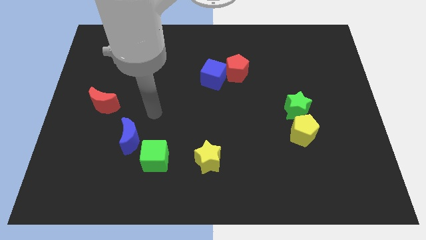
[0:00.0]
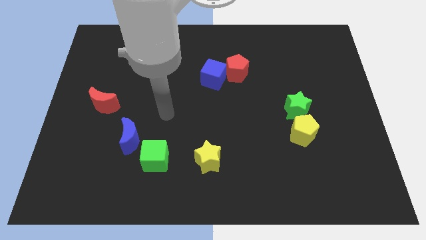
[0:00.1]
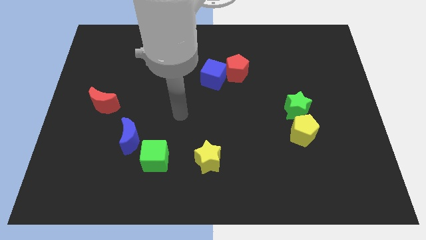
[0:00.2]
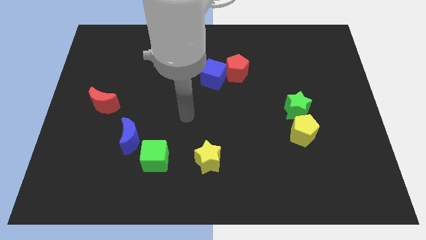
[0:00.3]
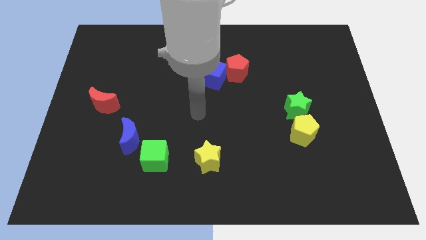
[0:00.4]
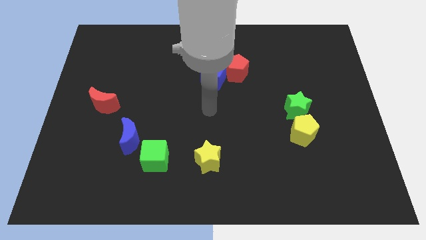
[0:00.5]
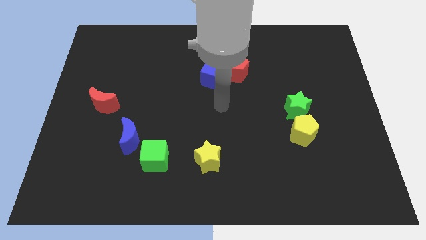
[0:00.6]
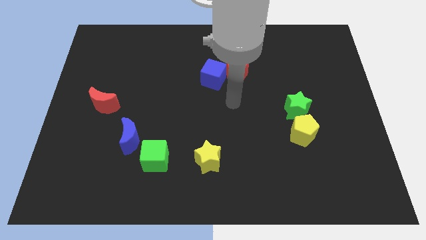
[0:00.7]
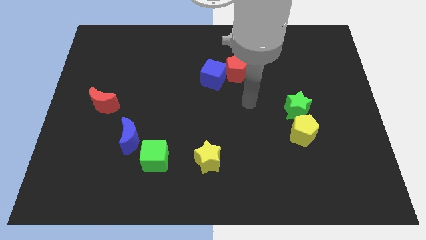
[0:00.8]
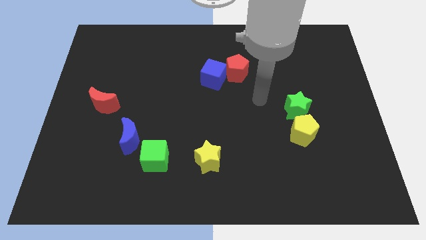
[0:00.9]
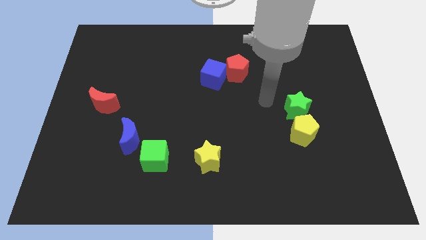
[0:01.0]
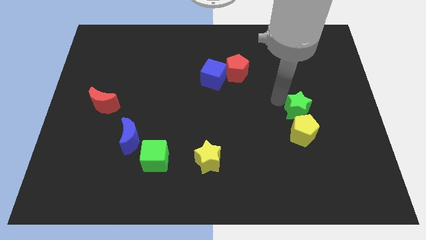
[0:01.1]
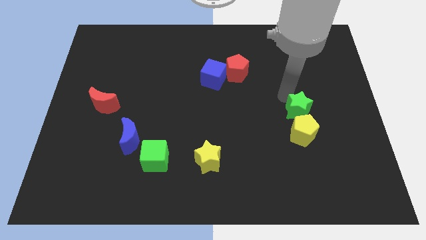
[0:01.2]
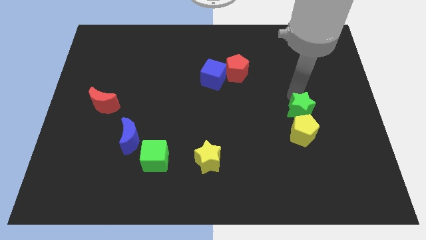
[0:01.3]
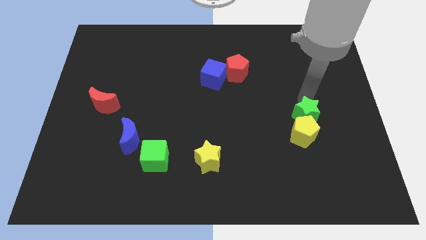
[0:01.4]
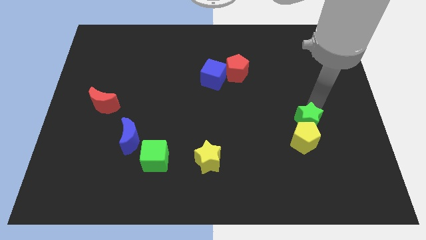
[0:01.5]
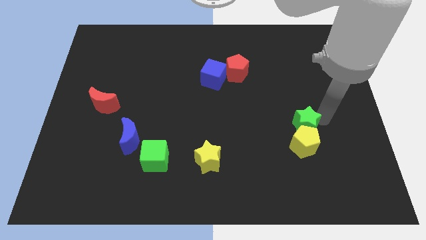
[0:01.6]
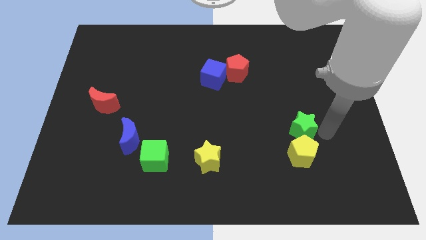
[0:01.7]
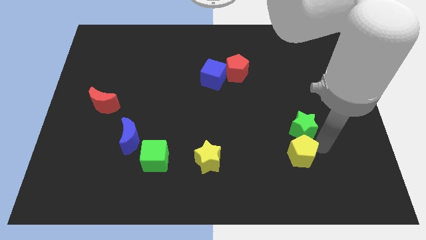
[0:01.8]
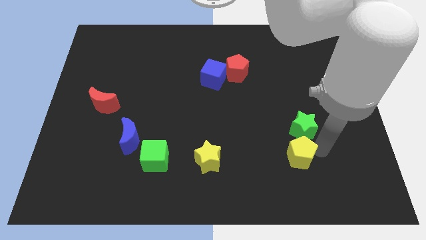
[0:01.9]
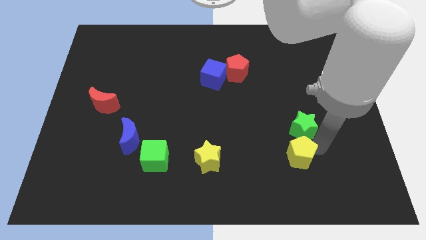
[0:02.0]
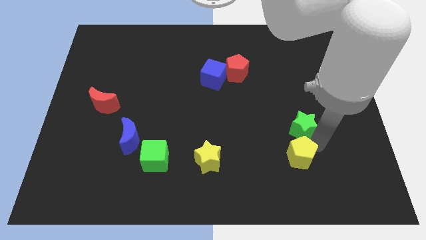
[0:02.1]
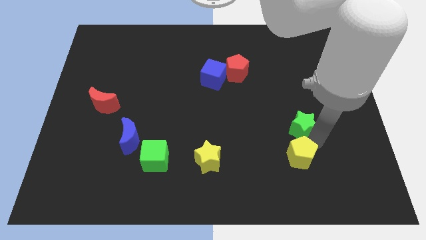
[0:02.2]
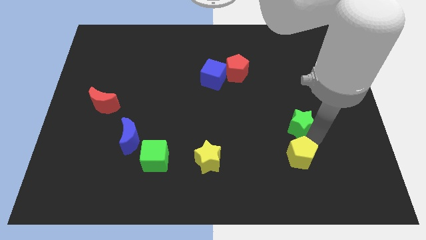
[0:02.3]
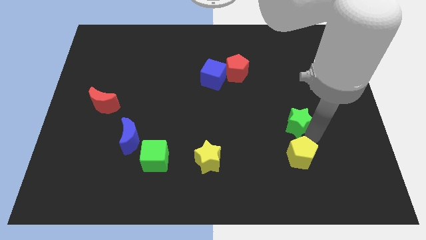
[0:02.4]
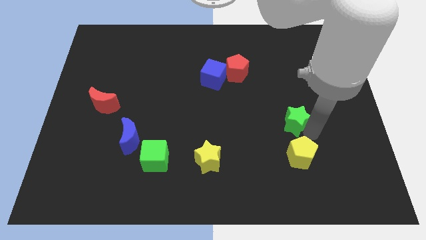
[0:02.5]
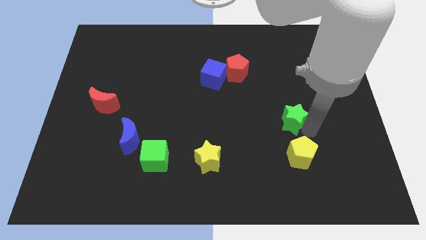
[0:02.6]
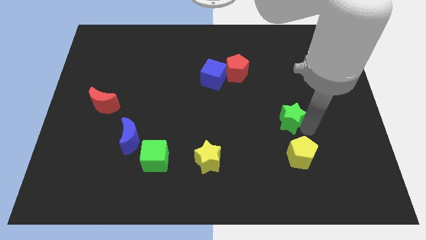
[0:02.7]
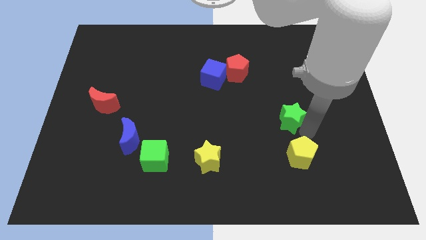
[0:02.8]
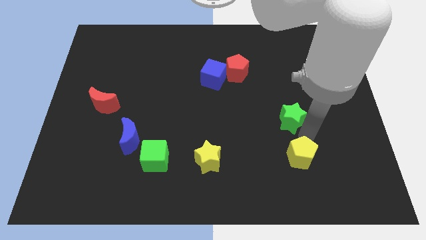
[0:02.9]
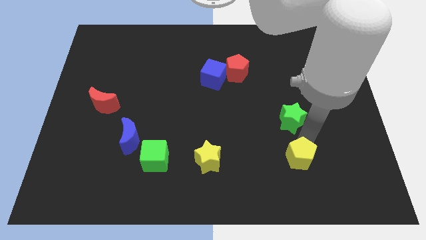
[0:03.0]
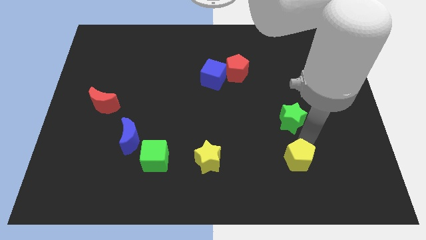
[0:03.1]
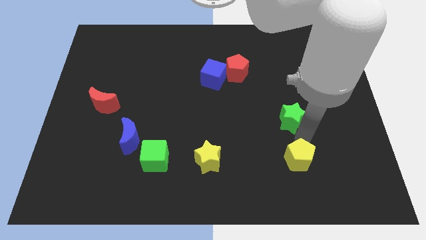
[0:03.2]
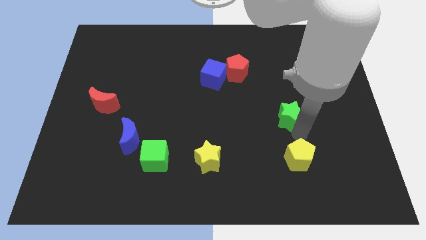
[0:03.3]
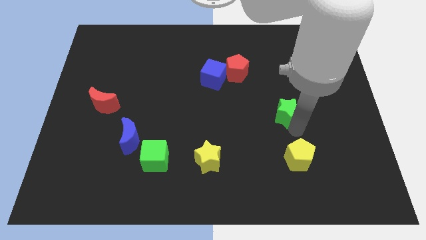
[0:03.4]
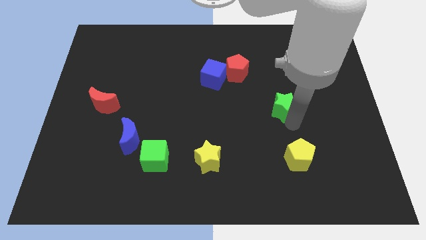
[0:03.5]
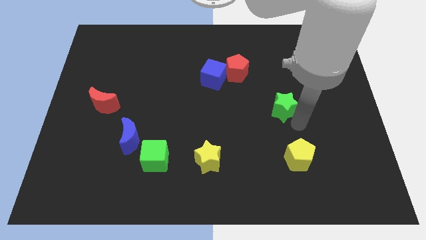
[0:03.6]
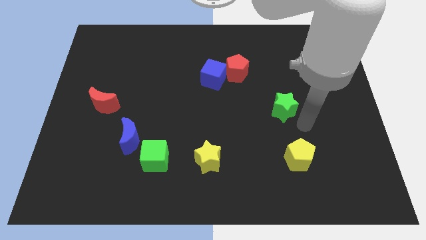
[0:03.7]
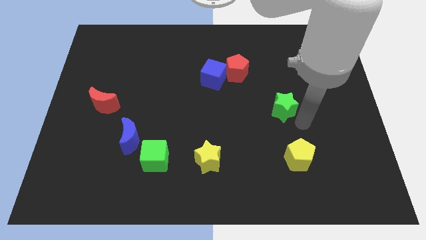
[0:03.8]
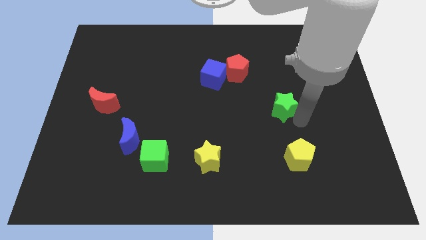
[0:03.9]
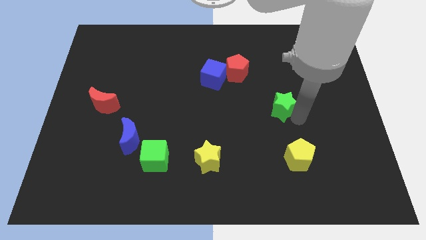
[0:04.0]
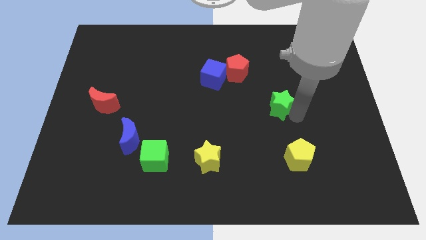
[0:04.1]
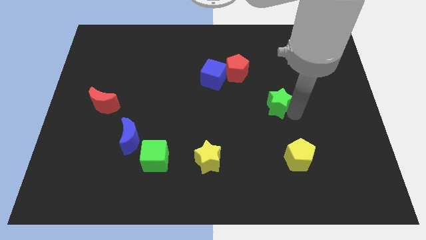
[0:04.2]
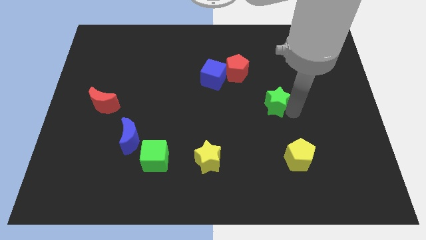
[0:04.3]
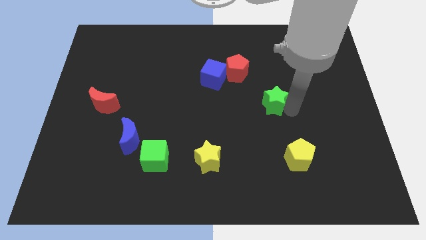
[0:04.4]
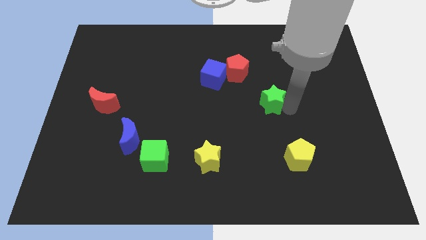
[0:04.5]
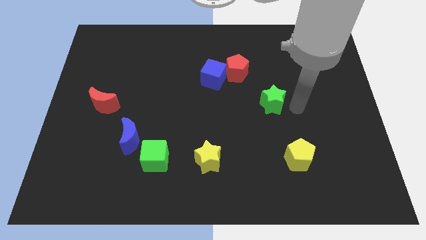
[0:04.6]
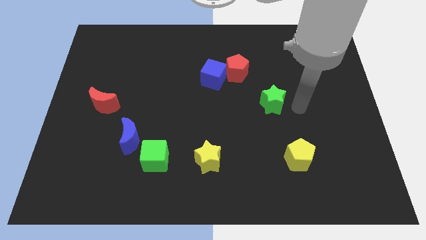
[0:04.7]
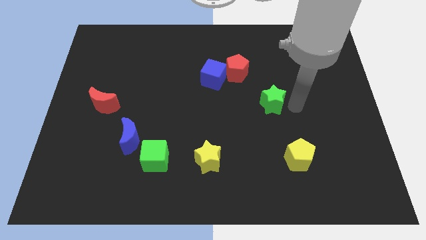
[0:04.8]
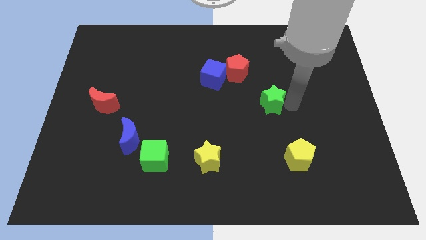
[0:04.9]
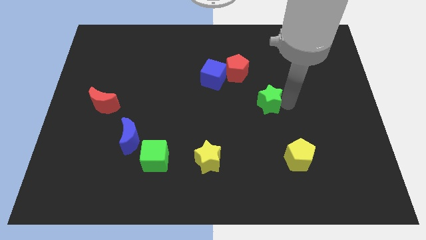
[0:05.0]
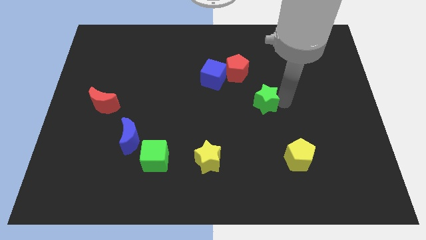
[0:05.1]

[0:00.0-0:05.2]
put the green star to the middle of the board

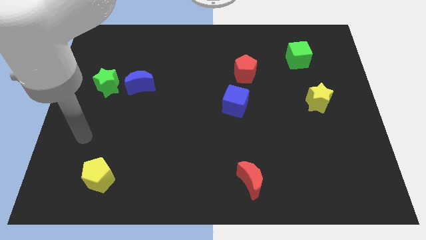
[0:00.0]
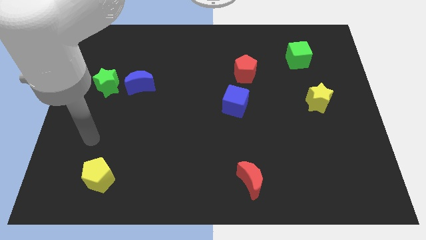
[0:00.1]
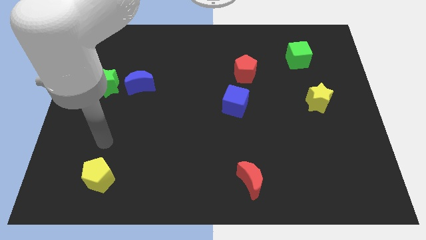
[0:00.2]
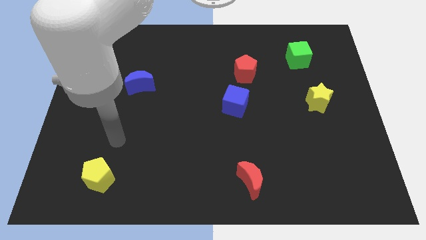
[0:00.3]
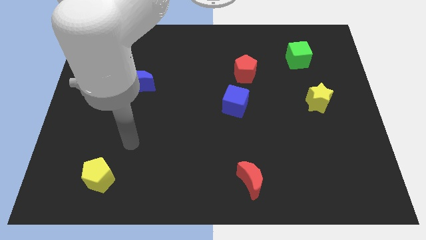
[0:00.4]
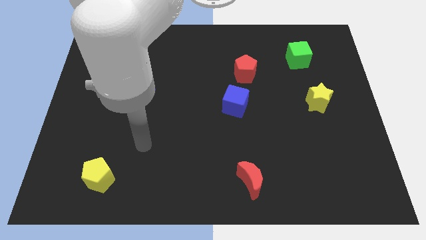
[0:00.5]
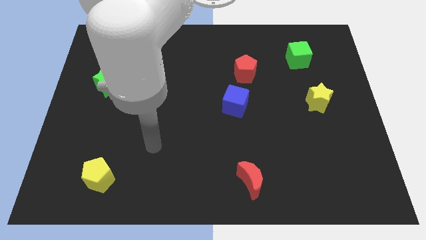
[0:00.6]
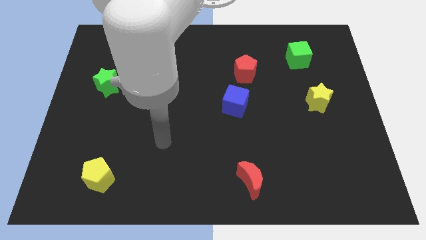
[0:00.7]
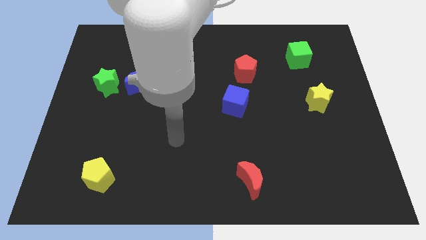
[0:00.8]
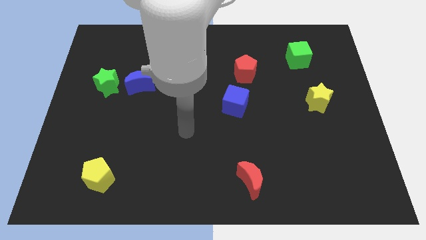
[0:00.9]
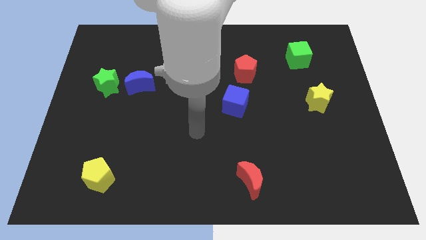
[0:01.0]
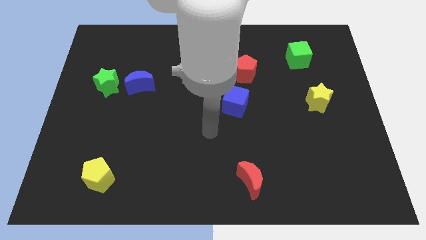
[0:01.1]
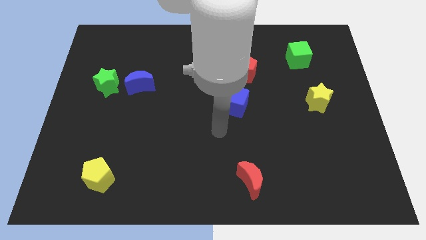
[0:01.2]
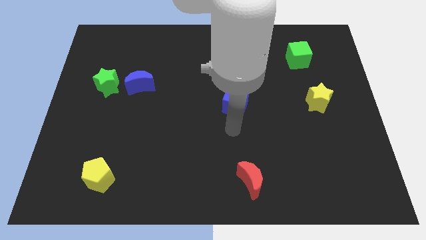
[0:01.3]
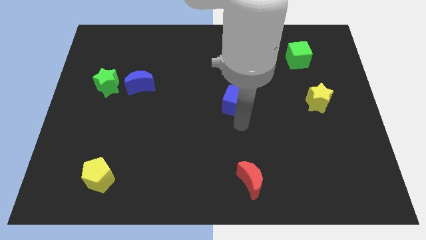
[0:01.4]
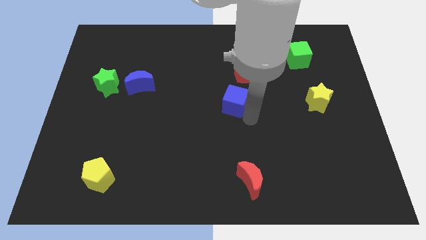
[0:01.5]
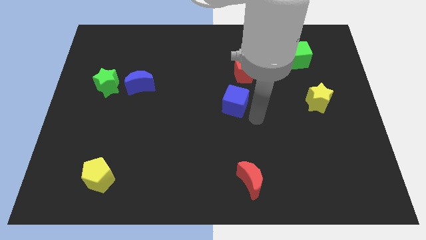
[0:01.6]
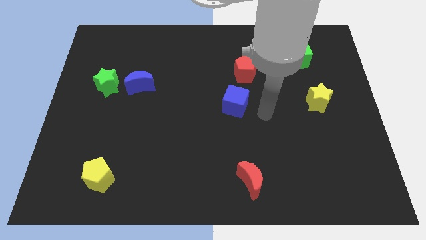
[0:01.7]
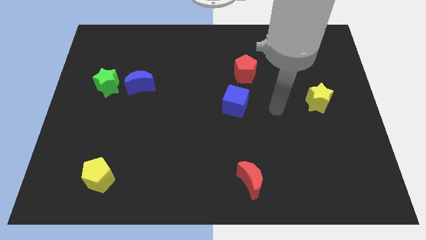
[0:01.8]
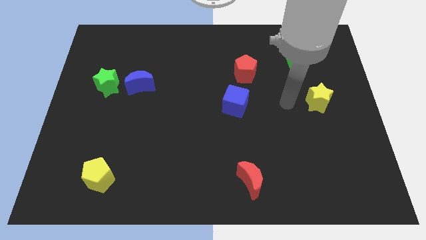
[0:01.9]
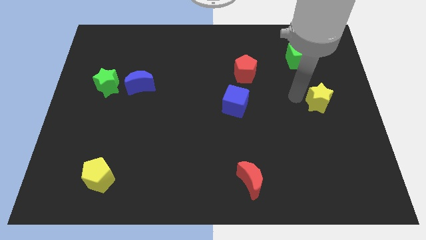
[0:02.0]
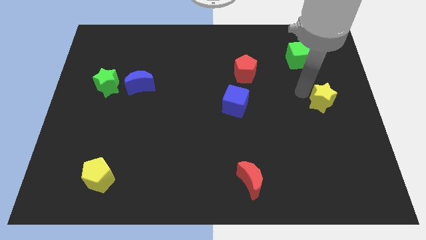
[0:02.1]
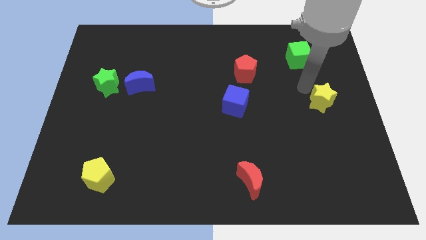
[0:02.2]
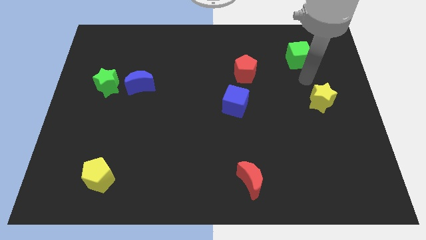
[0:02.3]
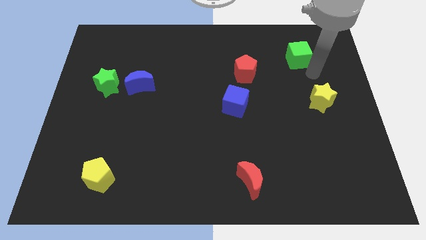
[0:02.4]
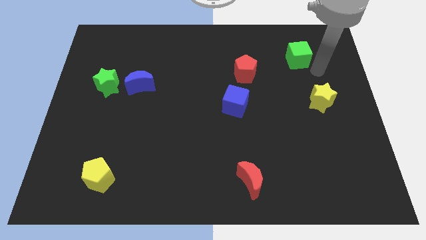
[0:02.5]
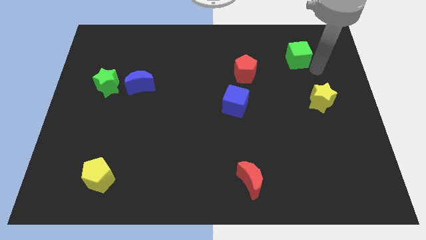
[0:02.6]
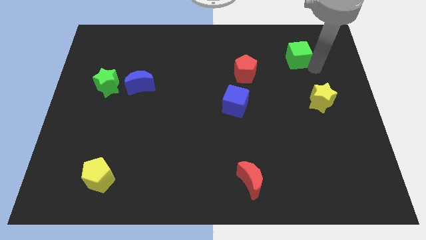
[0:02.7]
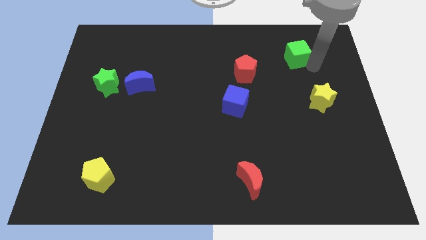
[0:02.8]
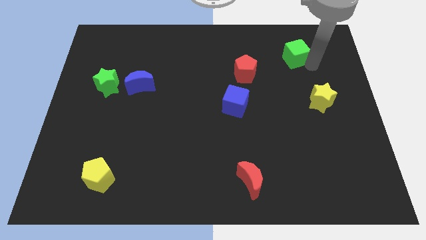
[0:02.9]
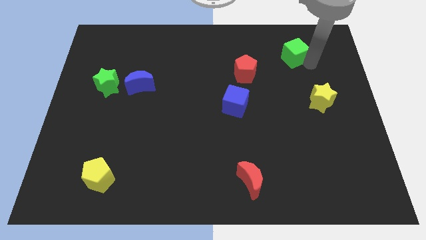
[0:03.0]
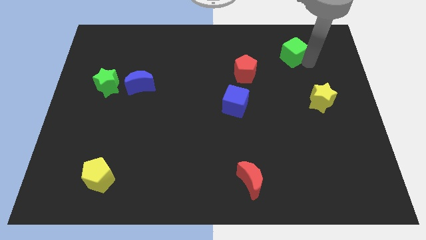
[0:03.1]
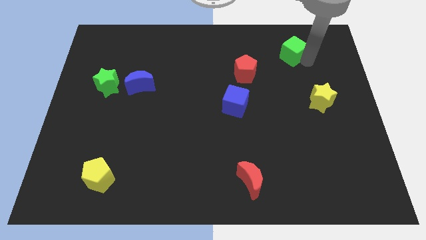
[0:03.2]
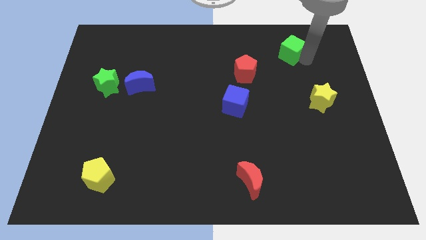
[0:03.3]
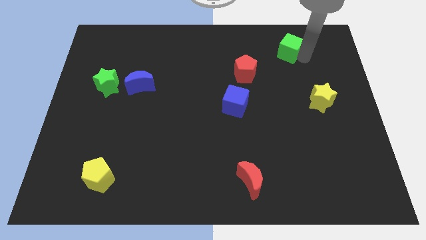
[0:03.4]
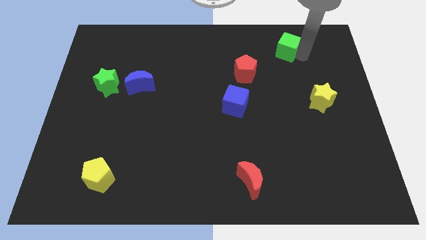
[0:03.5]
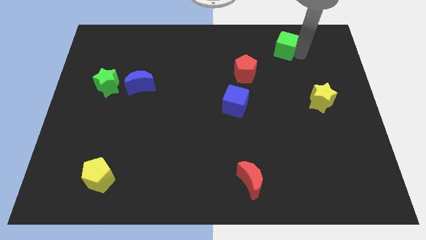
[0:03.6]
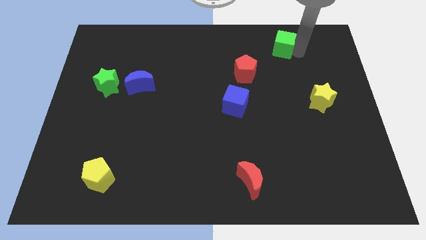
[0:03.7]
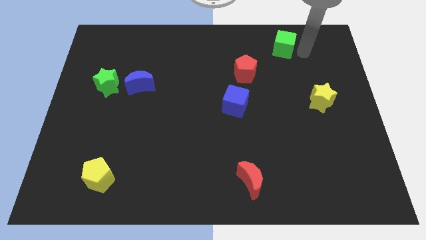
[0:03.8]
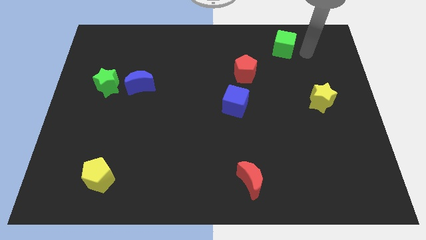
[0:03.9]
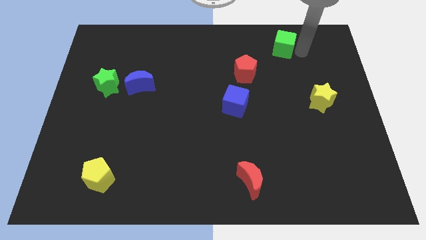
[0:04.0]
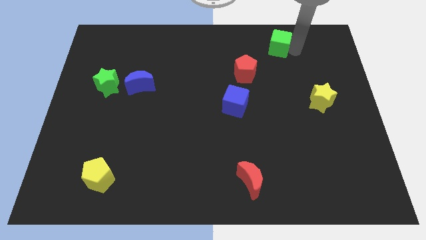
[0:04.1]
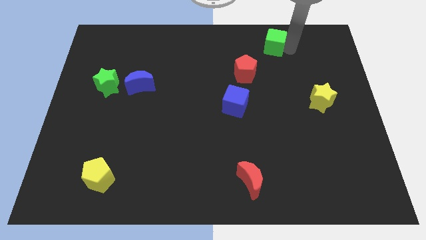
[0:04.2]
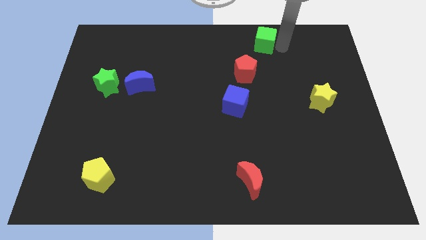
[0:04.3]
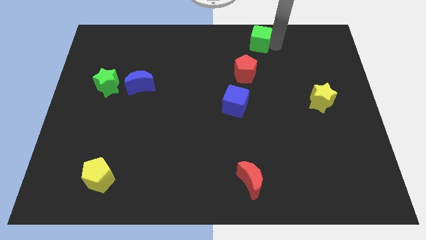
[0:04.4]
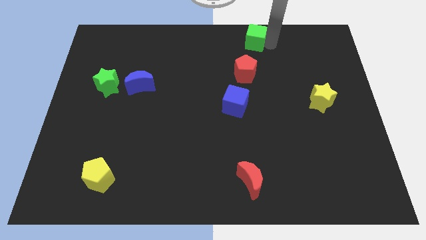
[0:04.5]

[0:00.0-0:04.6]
slide the green cube to the top side
